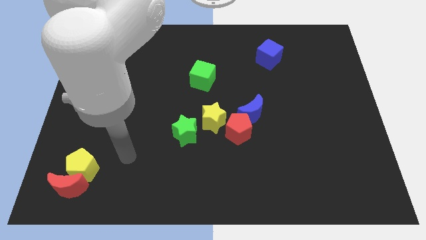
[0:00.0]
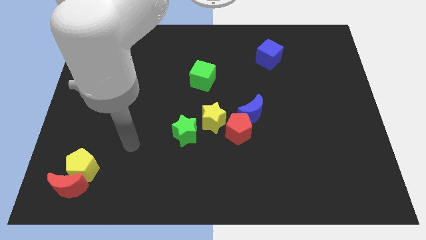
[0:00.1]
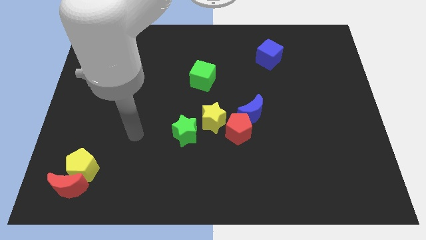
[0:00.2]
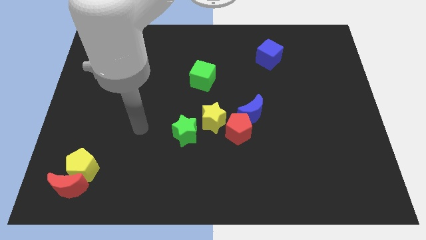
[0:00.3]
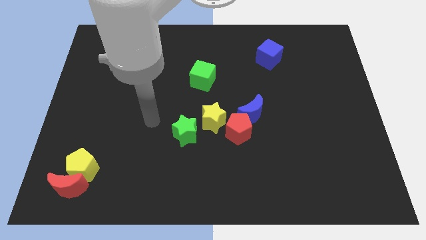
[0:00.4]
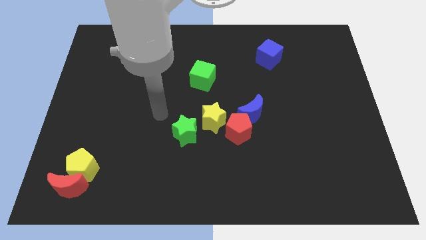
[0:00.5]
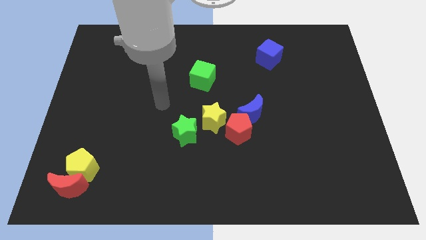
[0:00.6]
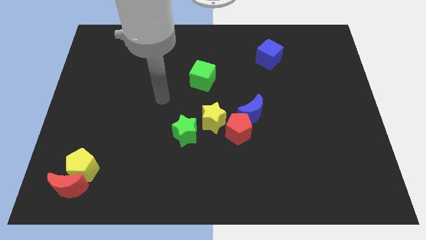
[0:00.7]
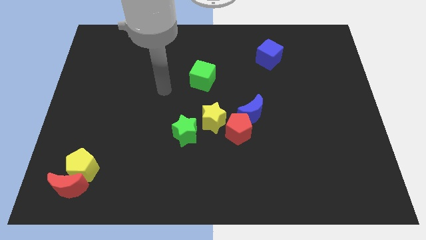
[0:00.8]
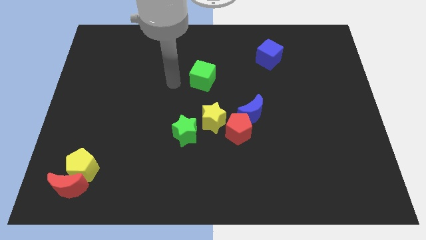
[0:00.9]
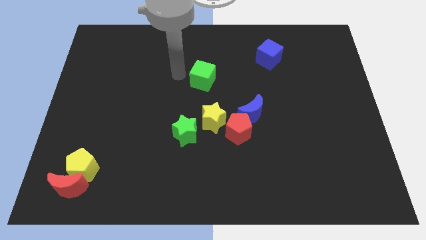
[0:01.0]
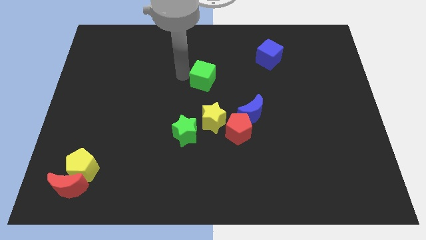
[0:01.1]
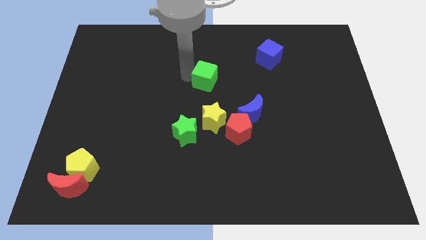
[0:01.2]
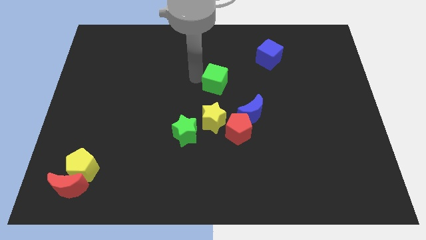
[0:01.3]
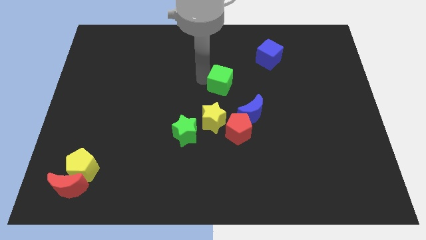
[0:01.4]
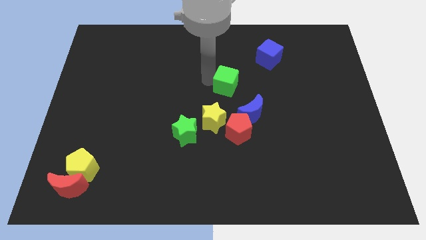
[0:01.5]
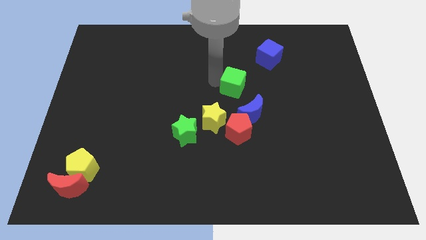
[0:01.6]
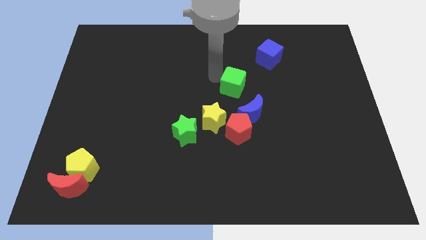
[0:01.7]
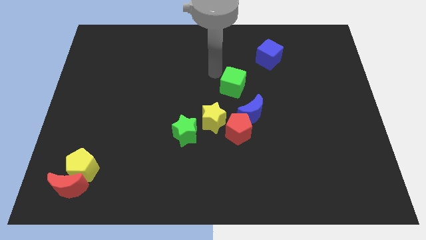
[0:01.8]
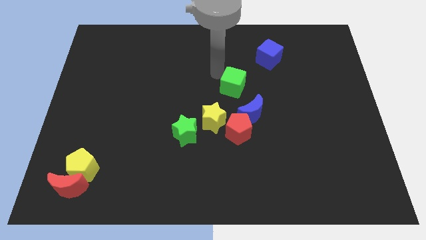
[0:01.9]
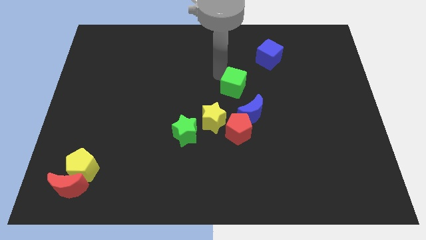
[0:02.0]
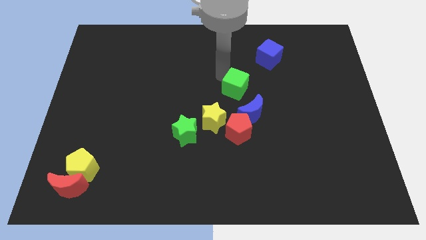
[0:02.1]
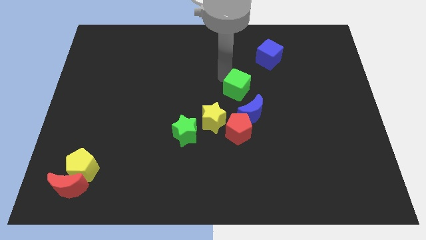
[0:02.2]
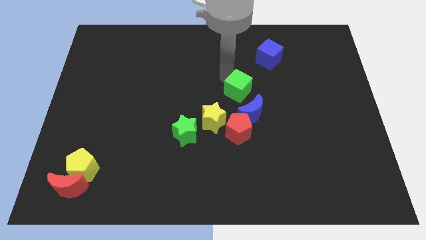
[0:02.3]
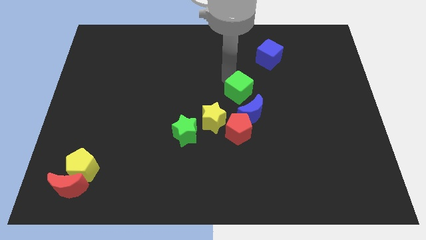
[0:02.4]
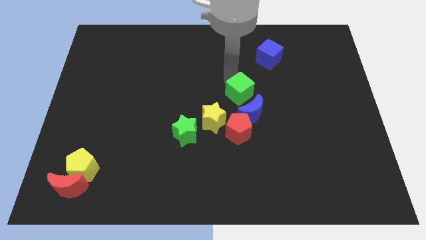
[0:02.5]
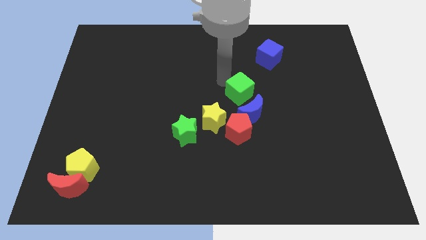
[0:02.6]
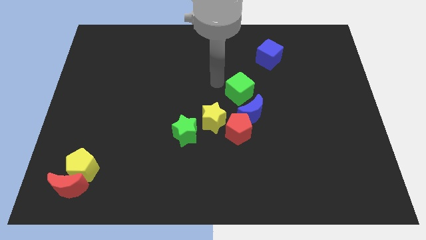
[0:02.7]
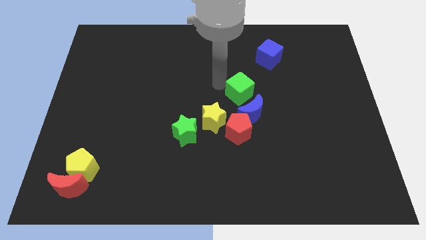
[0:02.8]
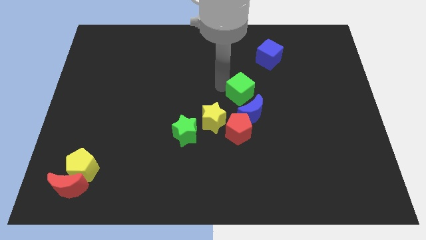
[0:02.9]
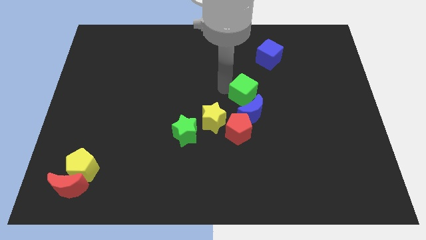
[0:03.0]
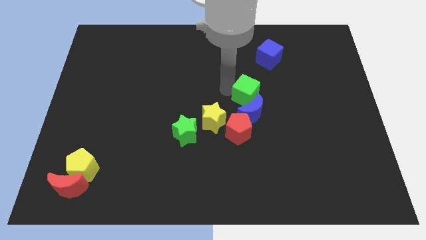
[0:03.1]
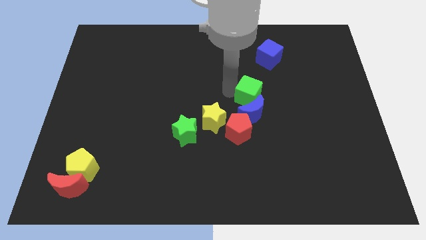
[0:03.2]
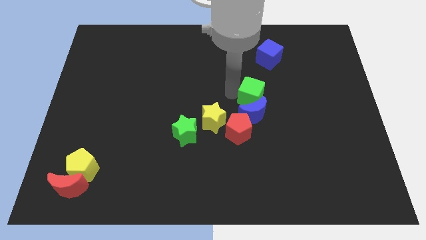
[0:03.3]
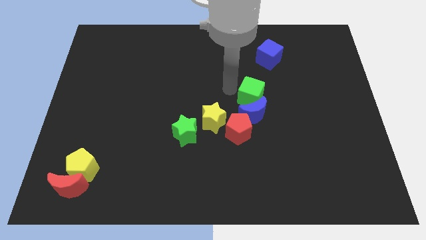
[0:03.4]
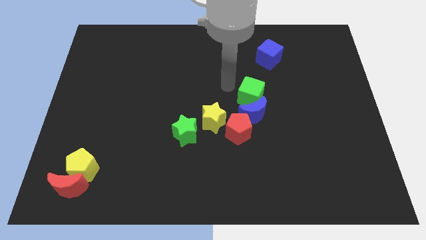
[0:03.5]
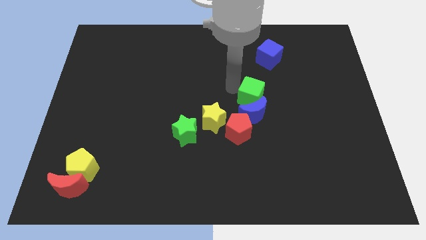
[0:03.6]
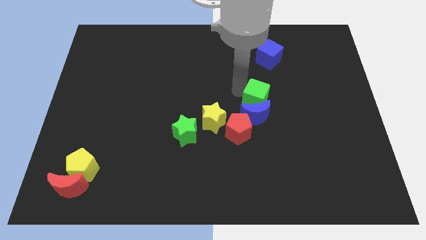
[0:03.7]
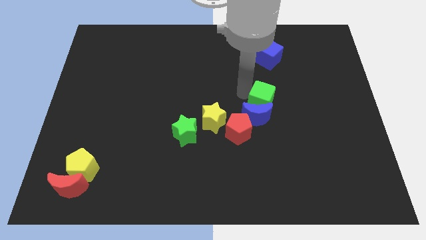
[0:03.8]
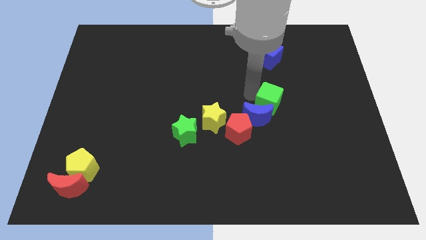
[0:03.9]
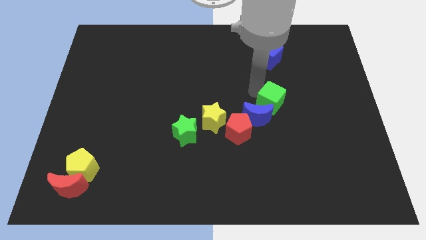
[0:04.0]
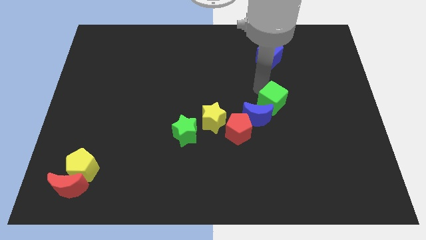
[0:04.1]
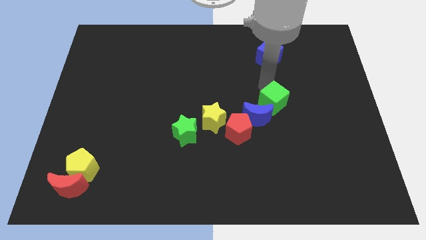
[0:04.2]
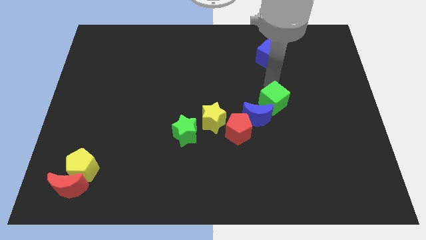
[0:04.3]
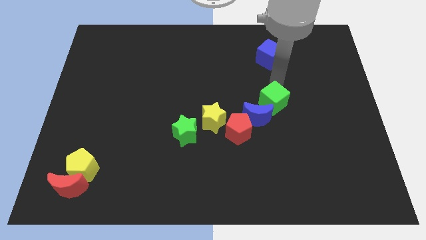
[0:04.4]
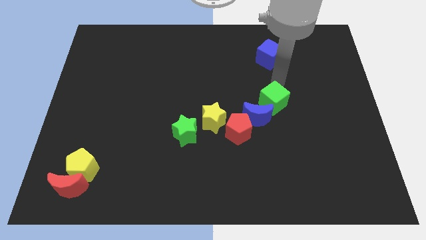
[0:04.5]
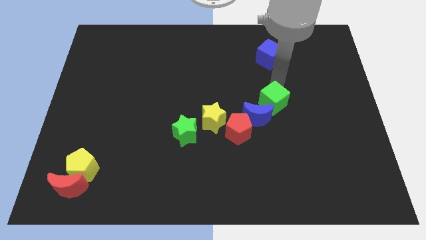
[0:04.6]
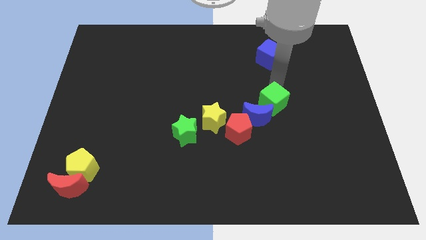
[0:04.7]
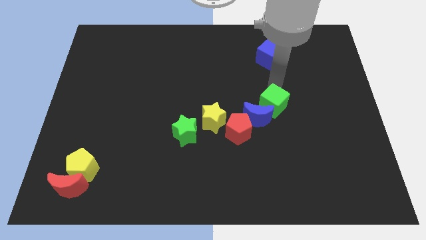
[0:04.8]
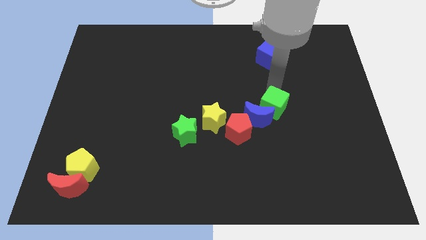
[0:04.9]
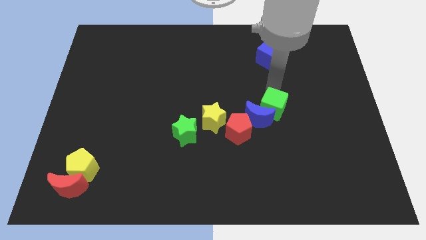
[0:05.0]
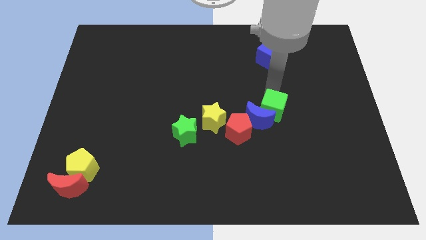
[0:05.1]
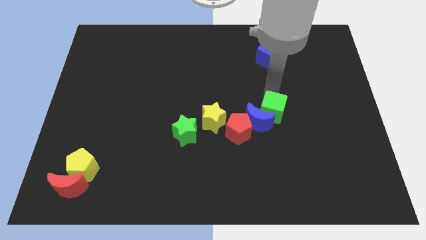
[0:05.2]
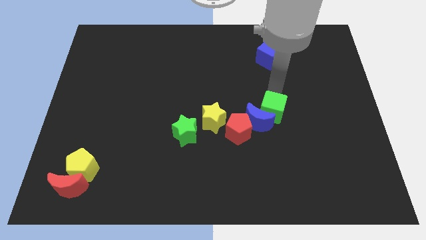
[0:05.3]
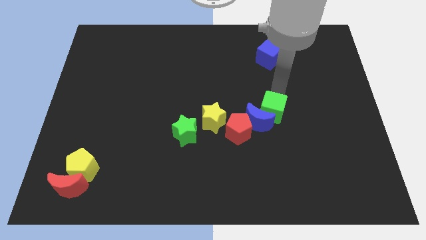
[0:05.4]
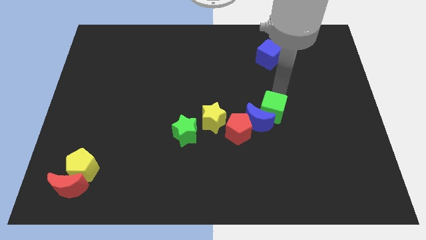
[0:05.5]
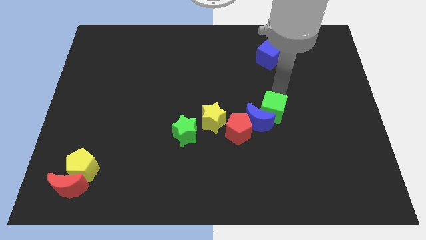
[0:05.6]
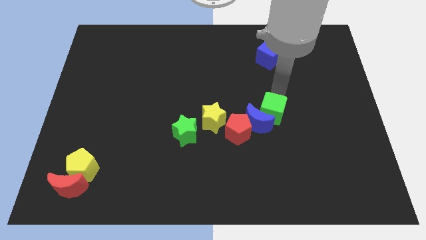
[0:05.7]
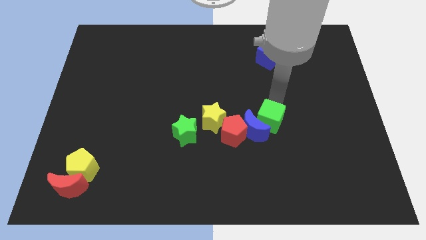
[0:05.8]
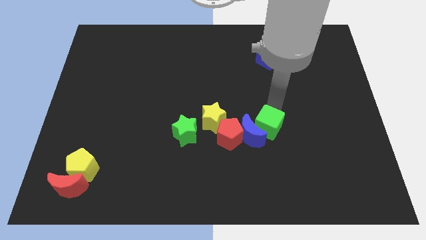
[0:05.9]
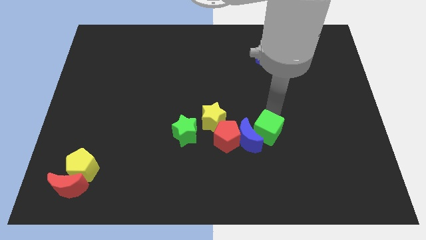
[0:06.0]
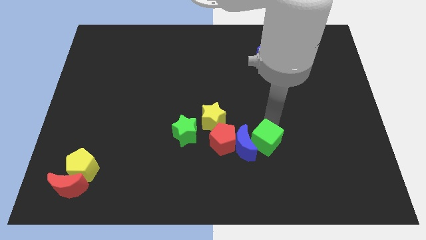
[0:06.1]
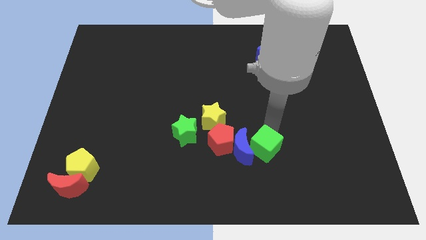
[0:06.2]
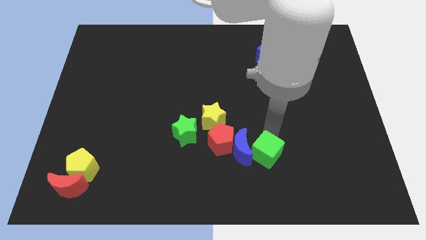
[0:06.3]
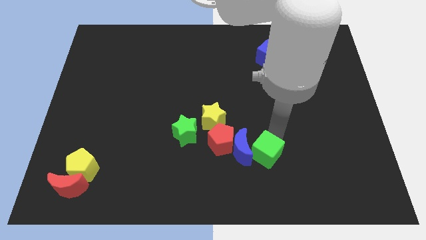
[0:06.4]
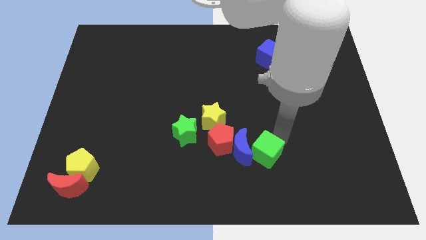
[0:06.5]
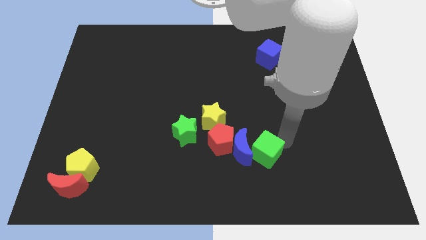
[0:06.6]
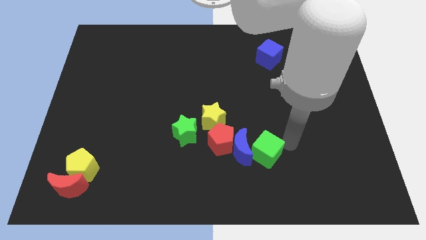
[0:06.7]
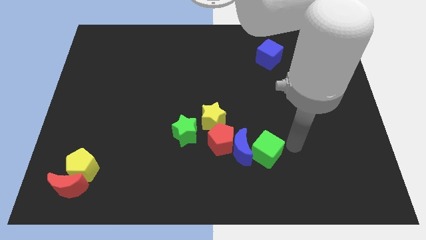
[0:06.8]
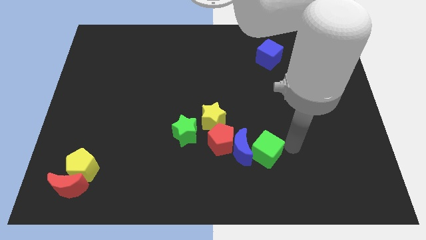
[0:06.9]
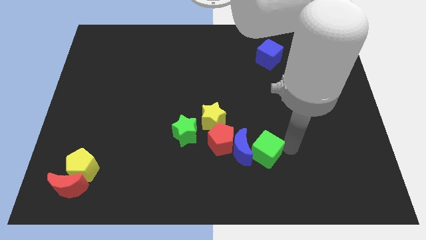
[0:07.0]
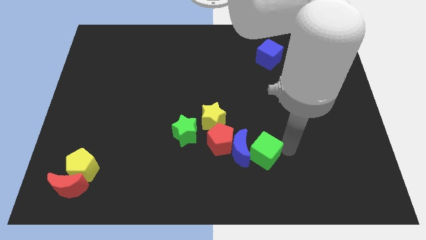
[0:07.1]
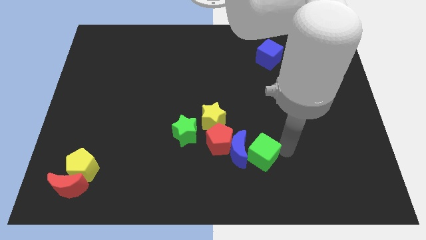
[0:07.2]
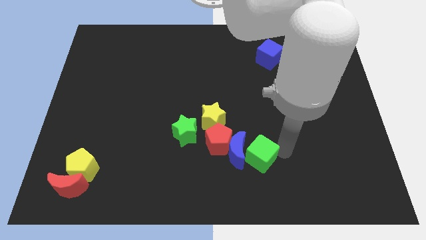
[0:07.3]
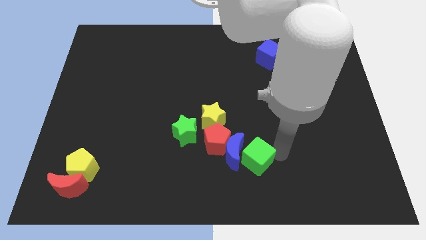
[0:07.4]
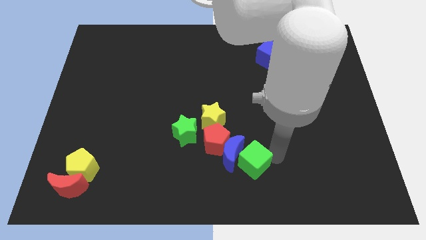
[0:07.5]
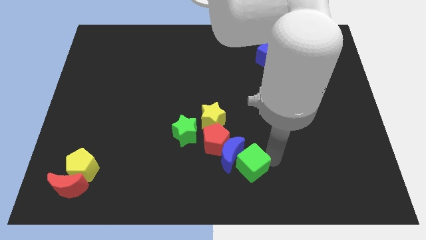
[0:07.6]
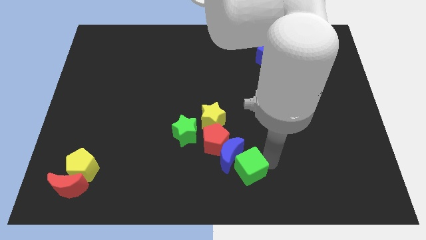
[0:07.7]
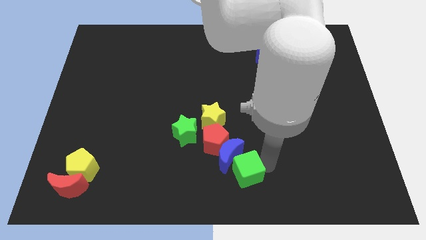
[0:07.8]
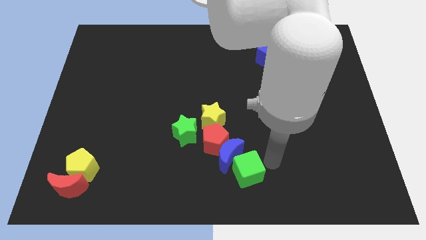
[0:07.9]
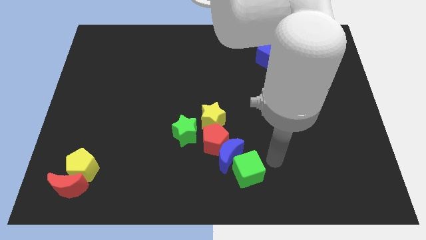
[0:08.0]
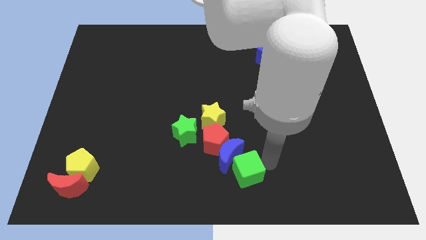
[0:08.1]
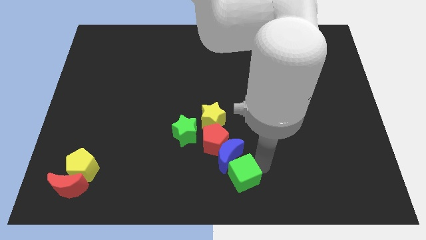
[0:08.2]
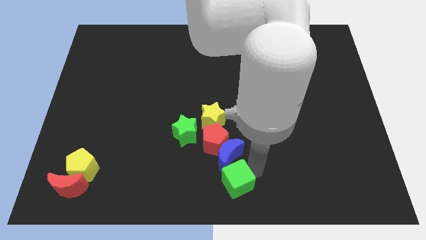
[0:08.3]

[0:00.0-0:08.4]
slide the green cube below the red pentagon
